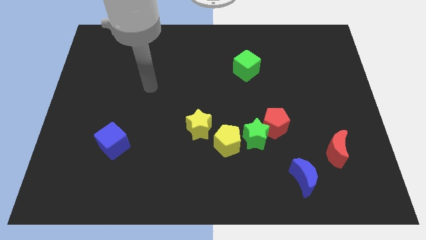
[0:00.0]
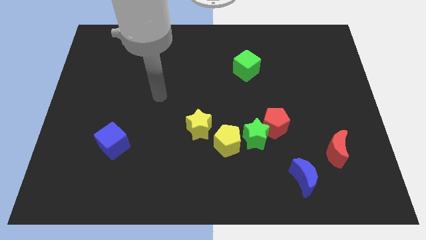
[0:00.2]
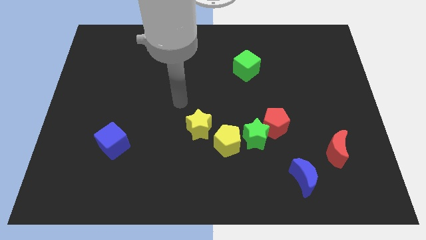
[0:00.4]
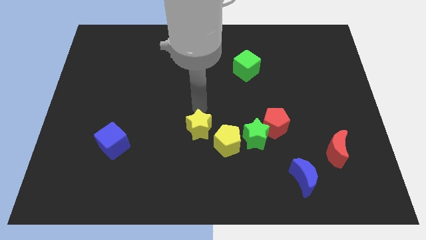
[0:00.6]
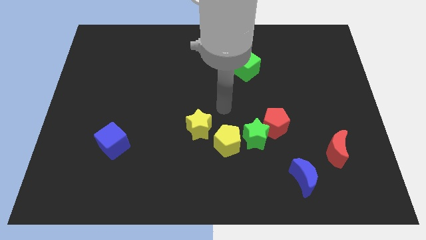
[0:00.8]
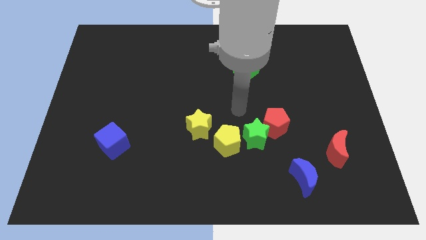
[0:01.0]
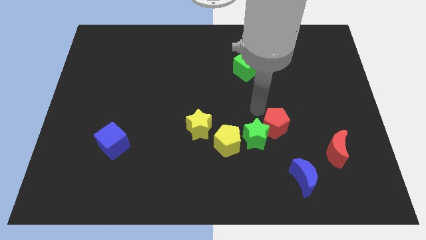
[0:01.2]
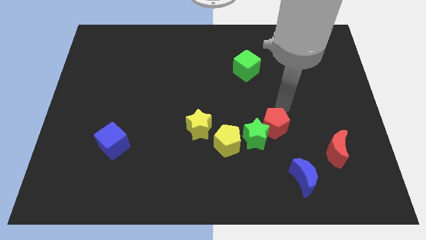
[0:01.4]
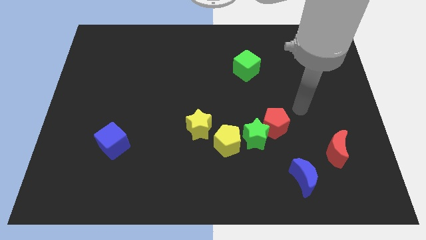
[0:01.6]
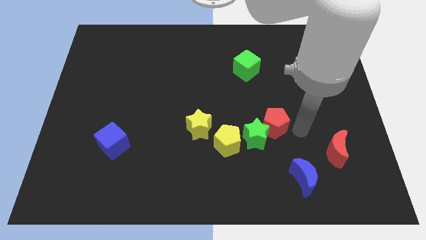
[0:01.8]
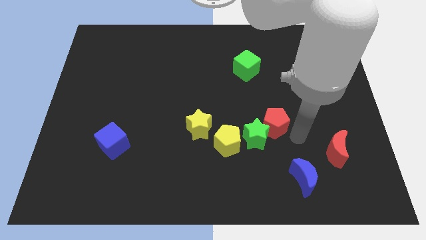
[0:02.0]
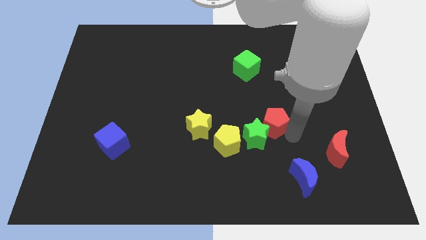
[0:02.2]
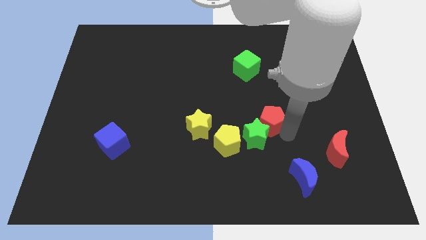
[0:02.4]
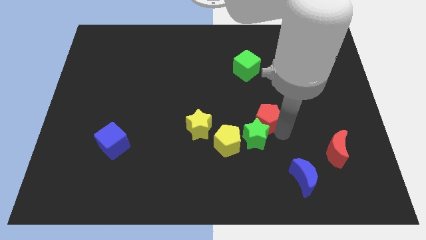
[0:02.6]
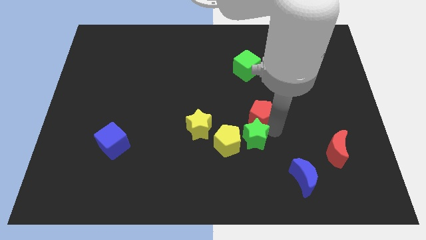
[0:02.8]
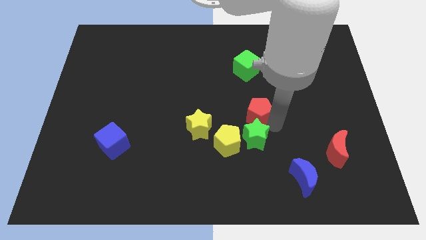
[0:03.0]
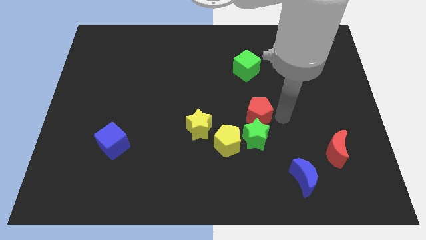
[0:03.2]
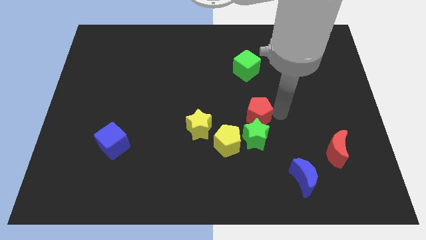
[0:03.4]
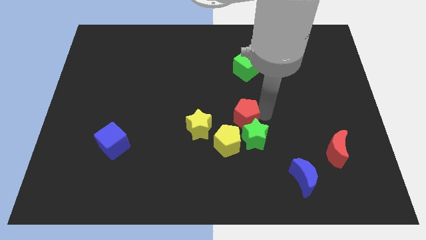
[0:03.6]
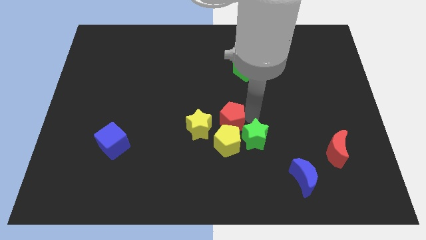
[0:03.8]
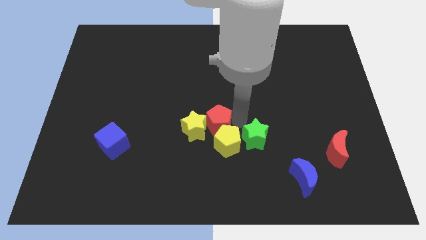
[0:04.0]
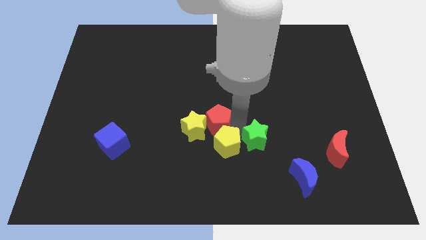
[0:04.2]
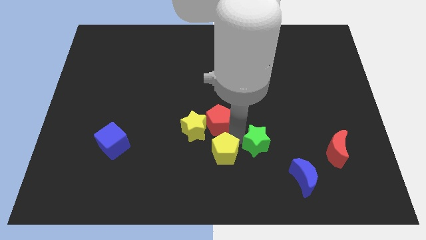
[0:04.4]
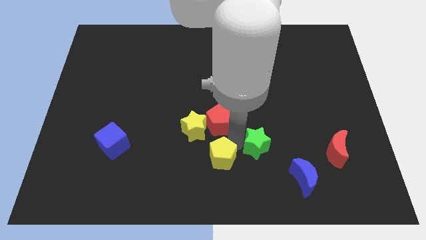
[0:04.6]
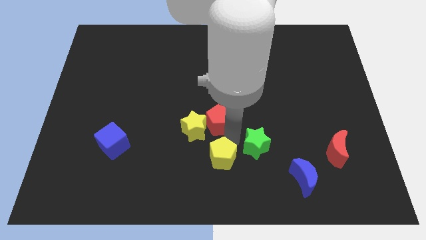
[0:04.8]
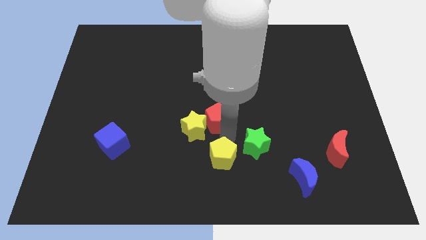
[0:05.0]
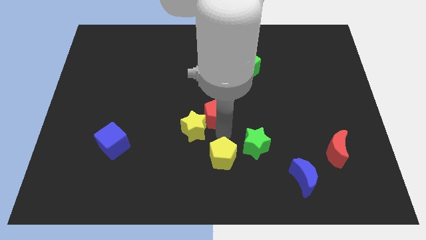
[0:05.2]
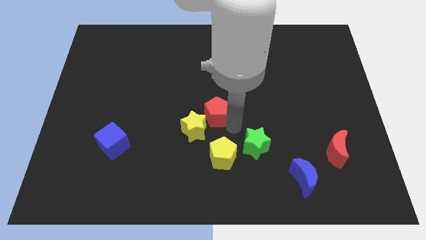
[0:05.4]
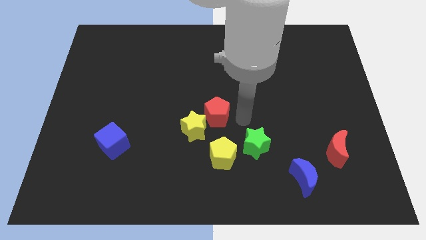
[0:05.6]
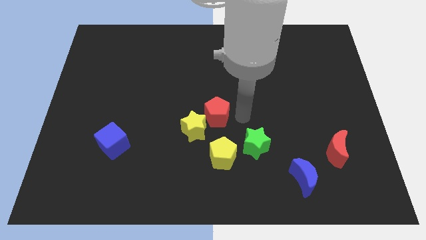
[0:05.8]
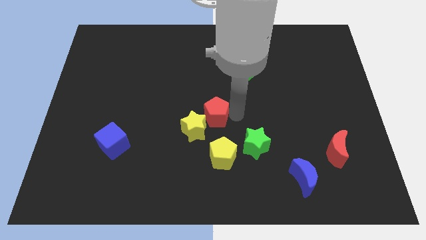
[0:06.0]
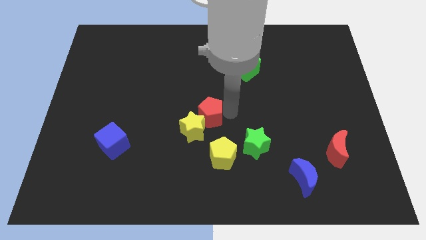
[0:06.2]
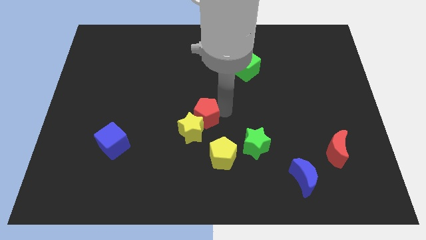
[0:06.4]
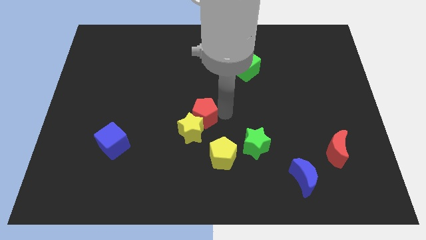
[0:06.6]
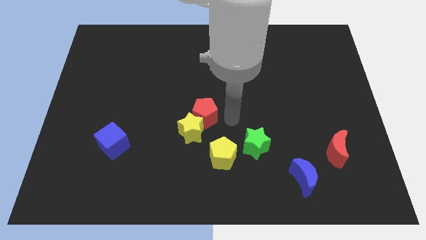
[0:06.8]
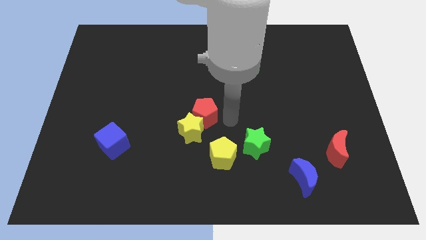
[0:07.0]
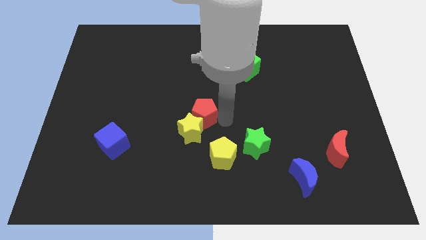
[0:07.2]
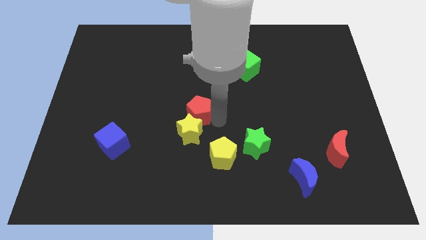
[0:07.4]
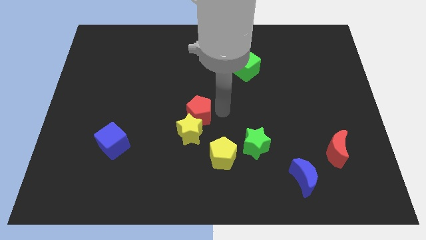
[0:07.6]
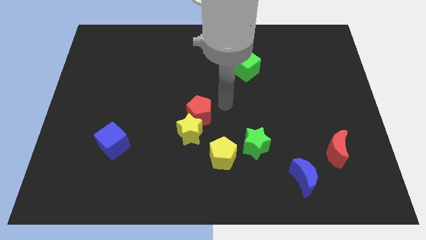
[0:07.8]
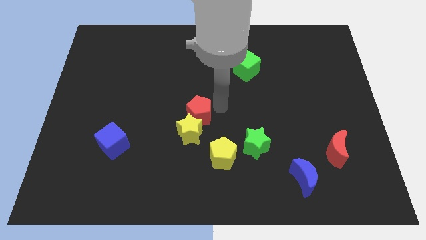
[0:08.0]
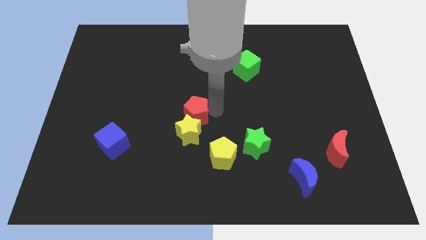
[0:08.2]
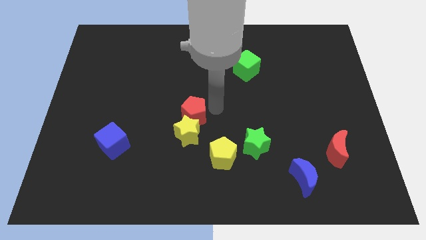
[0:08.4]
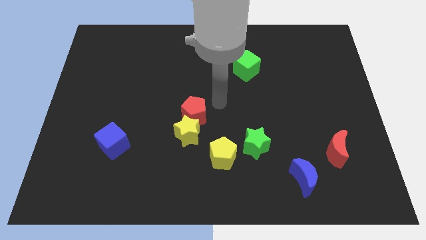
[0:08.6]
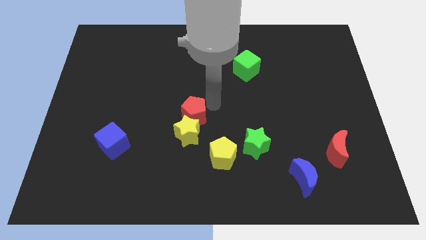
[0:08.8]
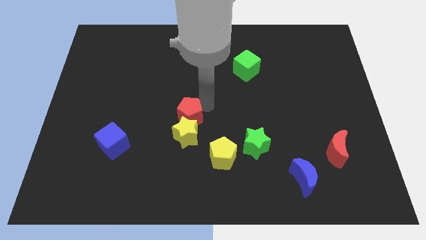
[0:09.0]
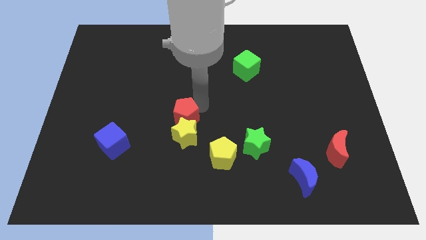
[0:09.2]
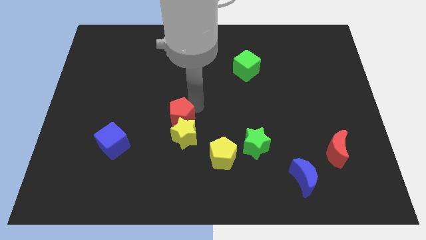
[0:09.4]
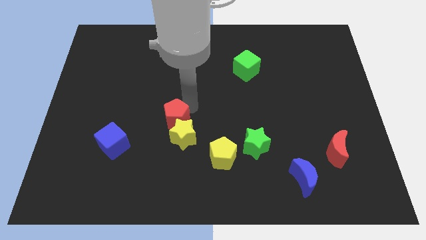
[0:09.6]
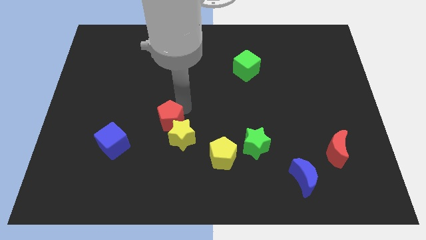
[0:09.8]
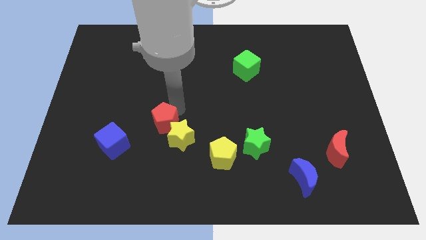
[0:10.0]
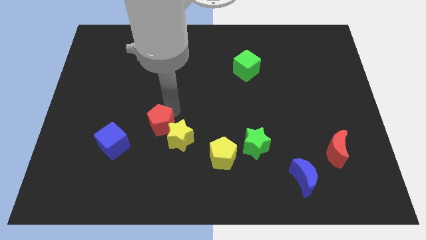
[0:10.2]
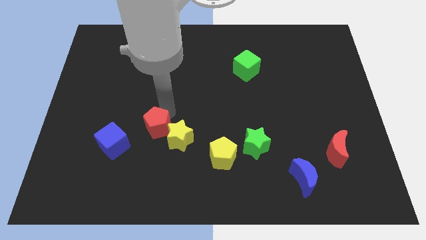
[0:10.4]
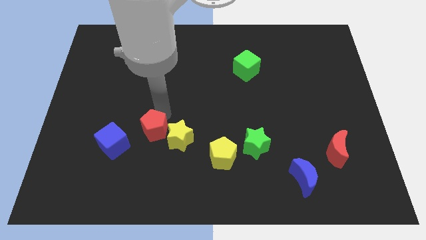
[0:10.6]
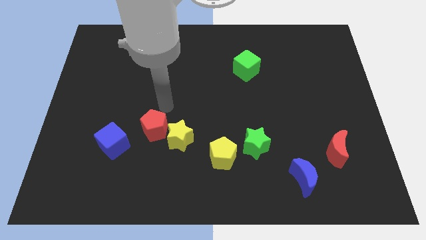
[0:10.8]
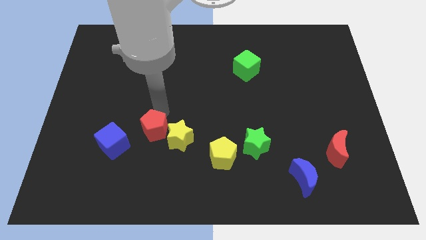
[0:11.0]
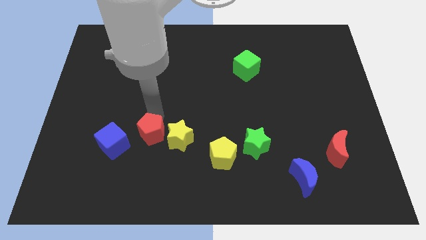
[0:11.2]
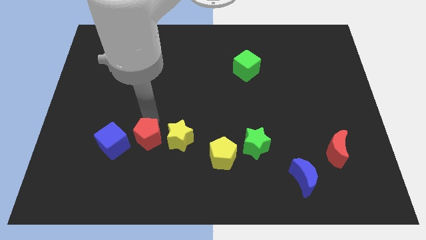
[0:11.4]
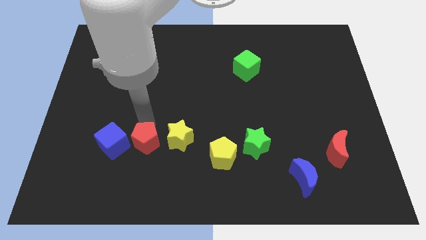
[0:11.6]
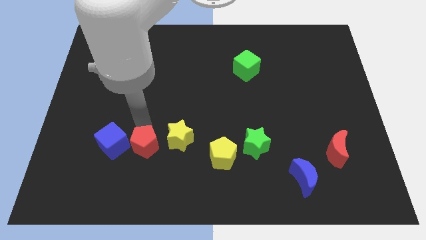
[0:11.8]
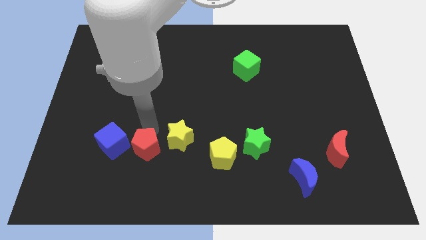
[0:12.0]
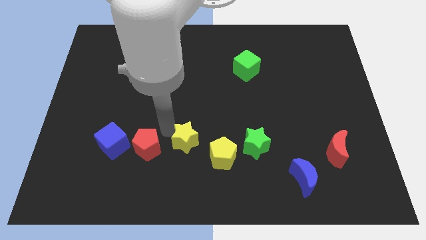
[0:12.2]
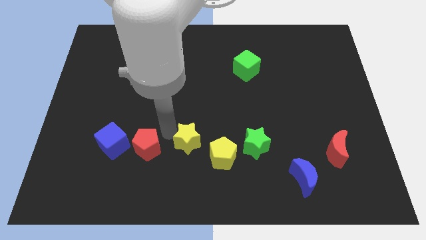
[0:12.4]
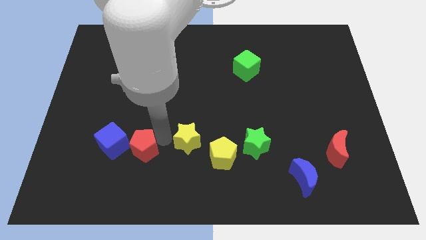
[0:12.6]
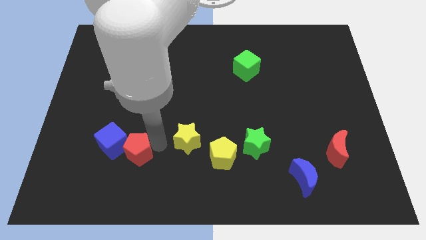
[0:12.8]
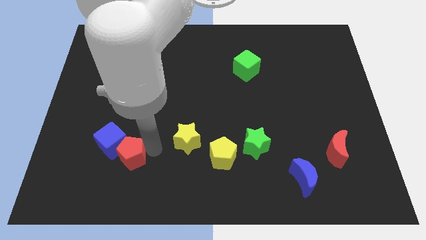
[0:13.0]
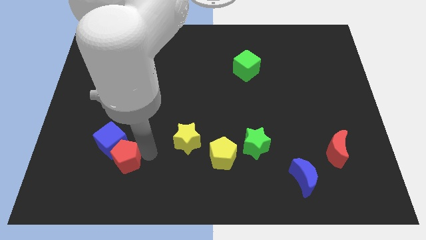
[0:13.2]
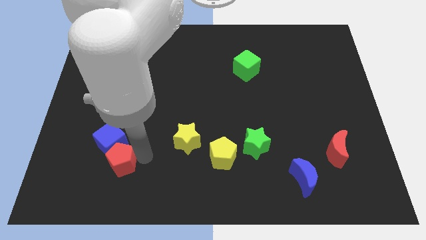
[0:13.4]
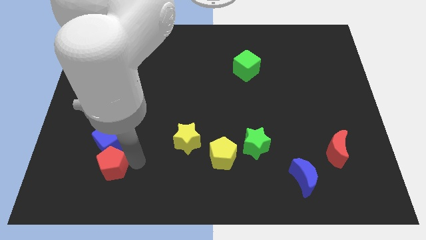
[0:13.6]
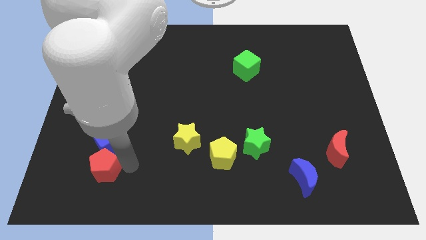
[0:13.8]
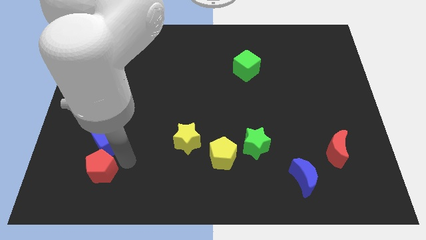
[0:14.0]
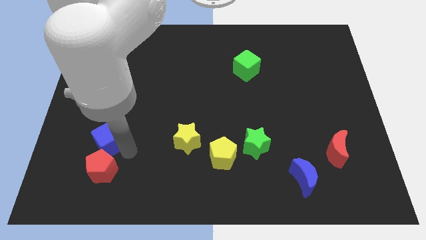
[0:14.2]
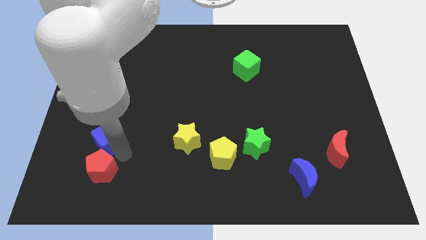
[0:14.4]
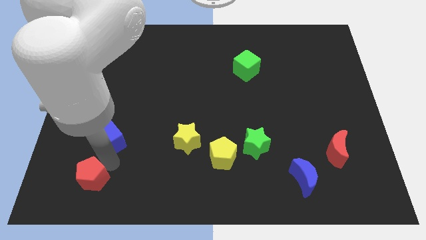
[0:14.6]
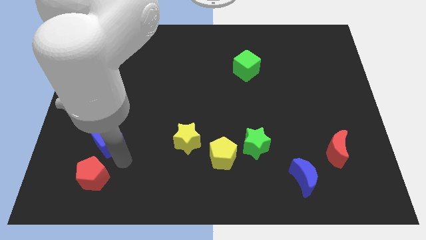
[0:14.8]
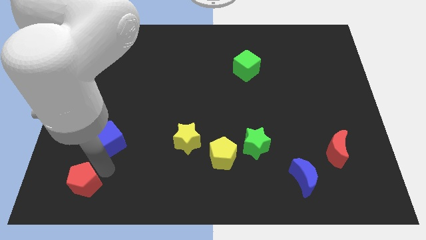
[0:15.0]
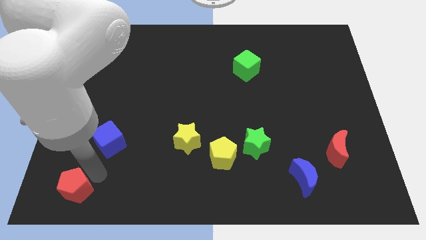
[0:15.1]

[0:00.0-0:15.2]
move the red pentagon to the lower left corner
